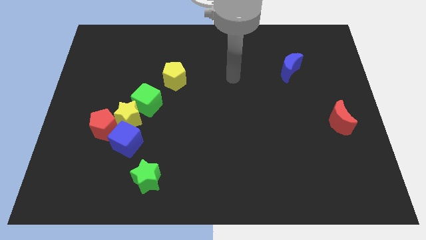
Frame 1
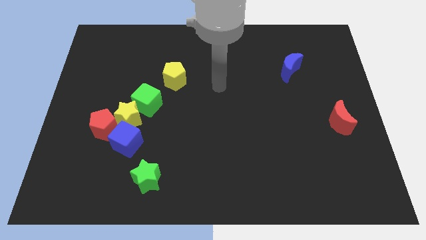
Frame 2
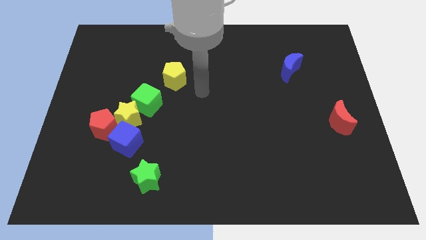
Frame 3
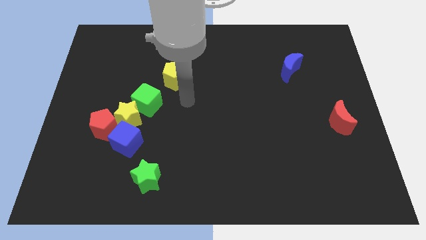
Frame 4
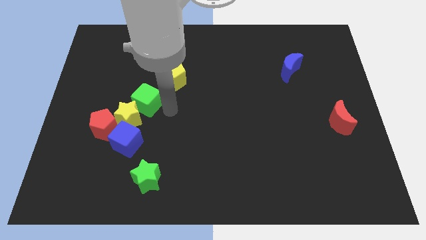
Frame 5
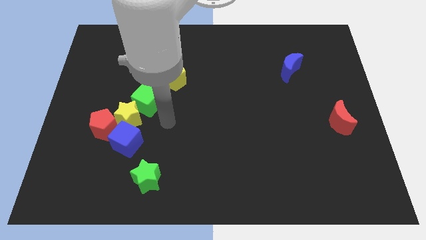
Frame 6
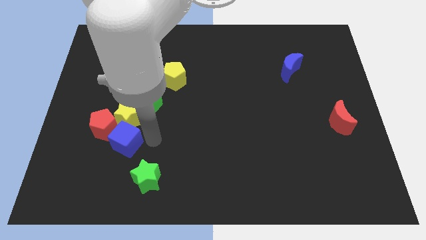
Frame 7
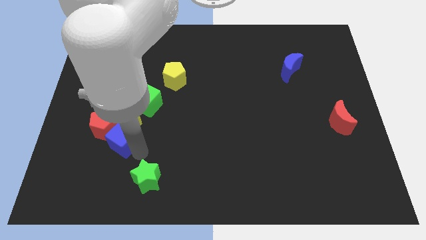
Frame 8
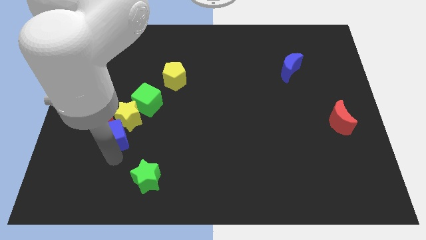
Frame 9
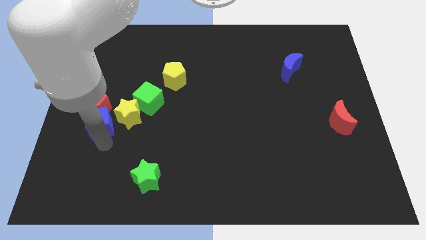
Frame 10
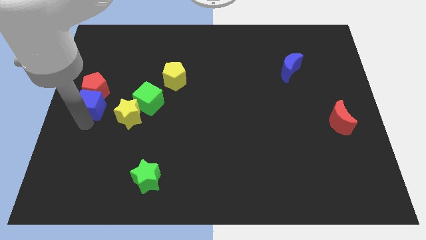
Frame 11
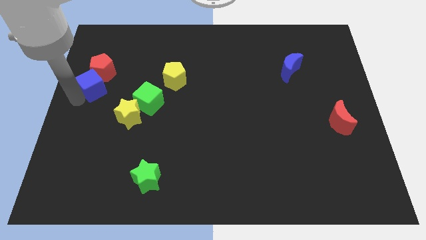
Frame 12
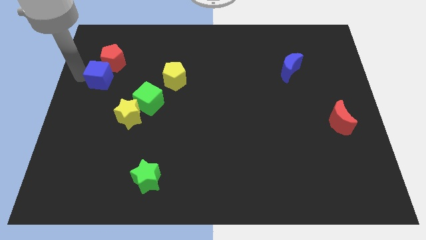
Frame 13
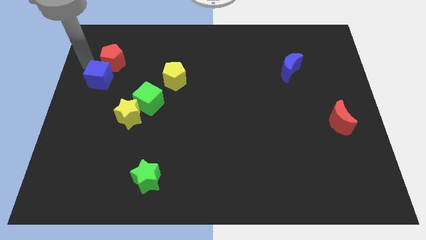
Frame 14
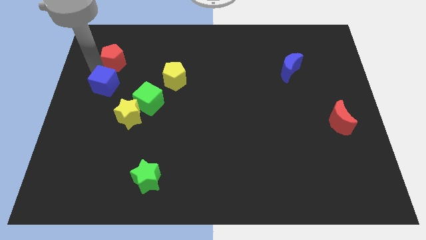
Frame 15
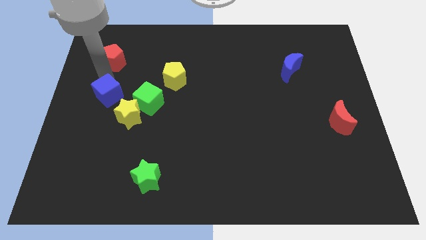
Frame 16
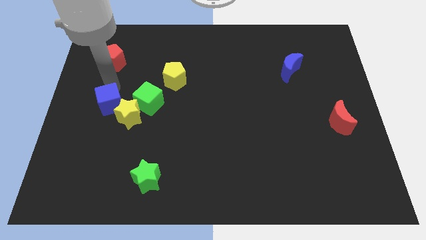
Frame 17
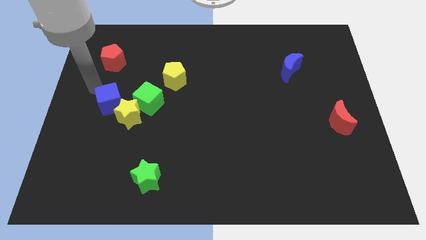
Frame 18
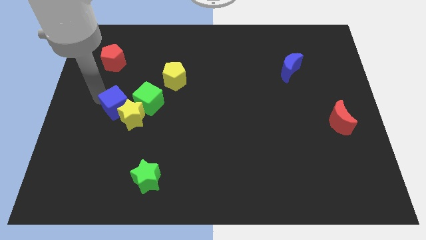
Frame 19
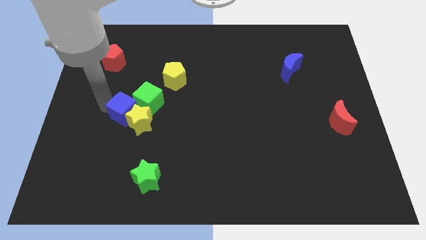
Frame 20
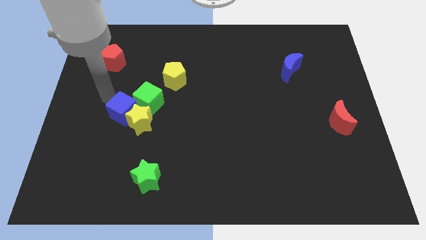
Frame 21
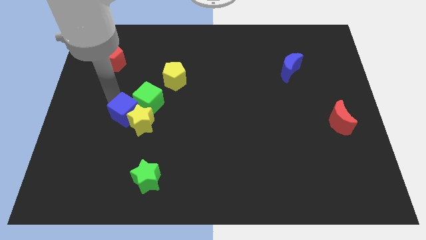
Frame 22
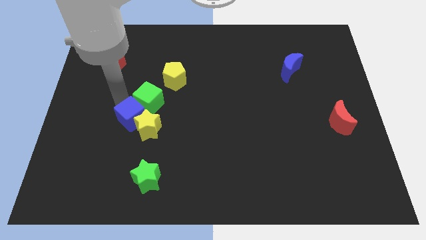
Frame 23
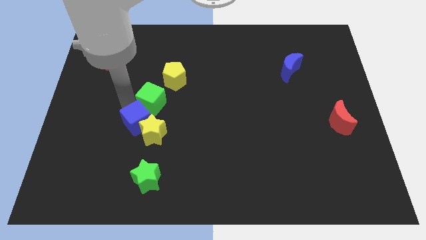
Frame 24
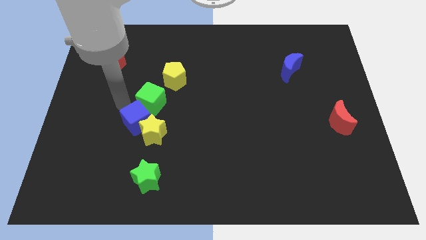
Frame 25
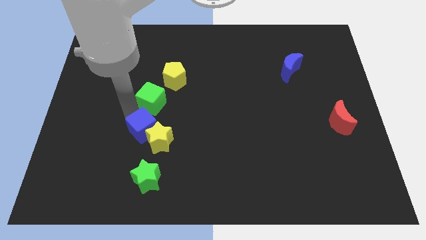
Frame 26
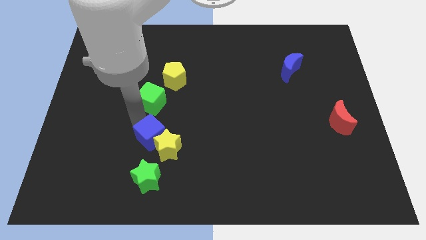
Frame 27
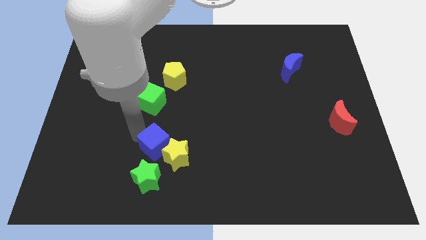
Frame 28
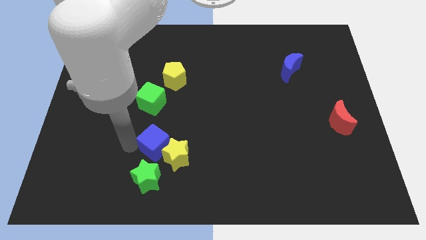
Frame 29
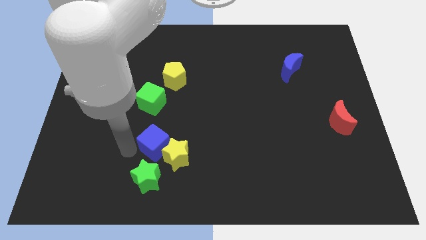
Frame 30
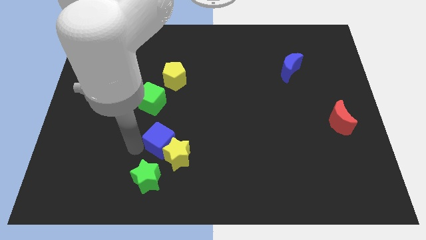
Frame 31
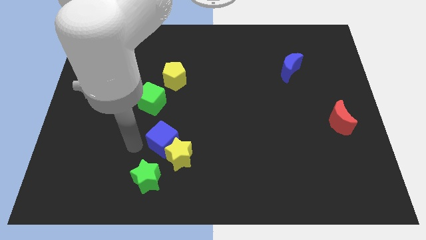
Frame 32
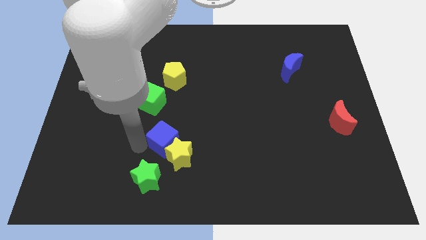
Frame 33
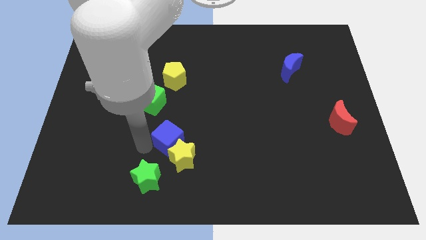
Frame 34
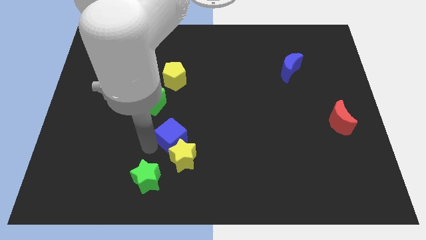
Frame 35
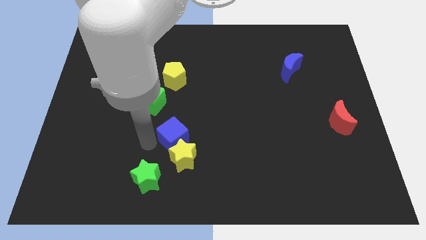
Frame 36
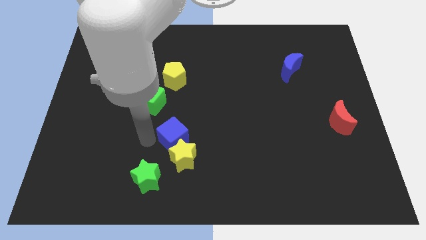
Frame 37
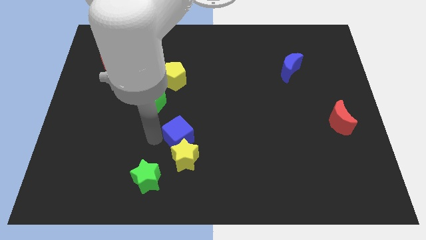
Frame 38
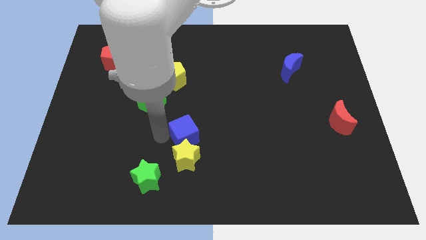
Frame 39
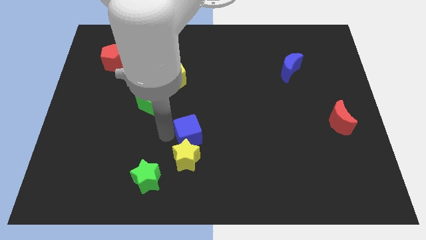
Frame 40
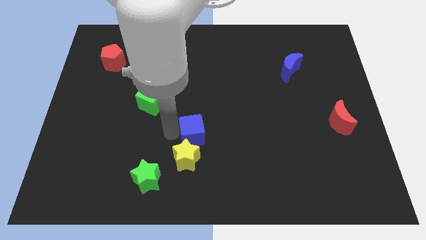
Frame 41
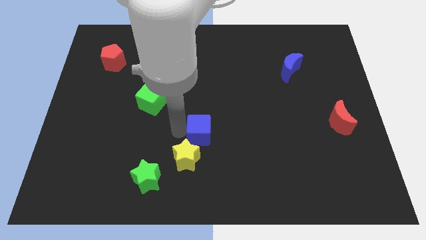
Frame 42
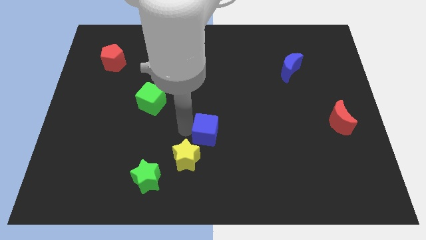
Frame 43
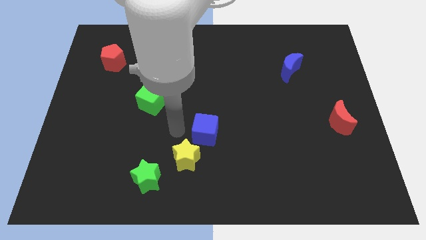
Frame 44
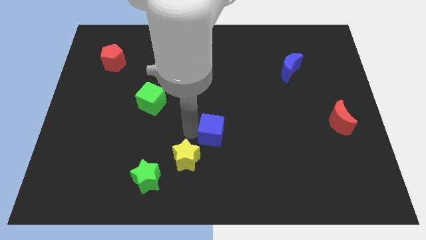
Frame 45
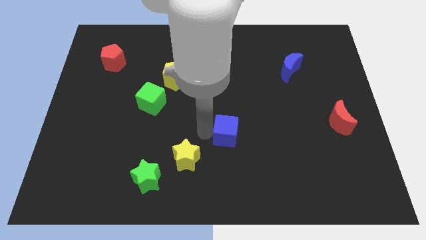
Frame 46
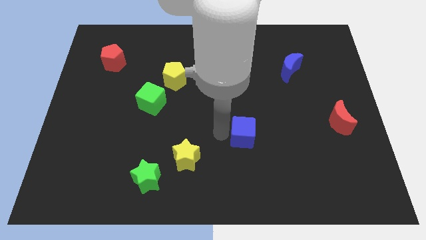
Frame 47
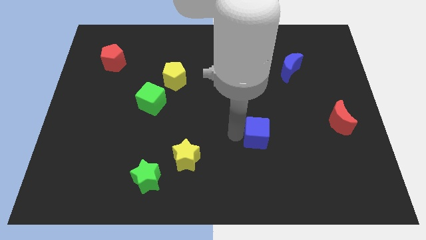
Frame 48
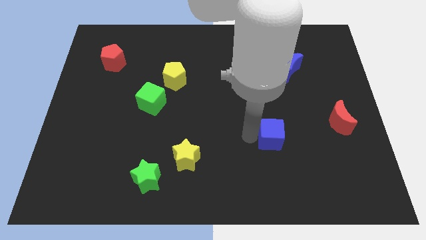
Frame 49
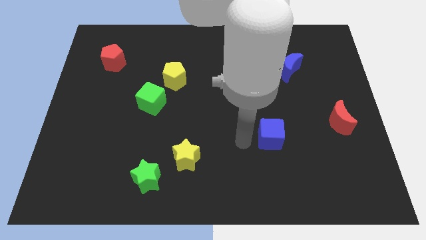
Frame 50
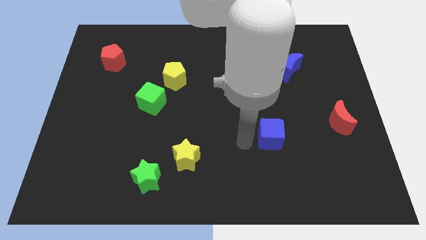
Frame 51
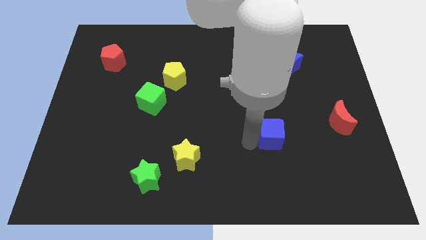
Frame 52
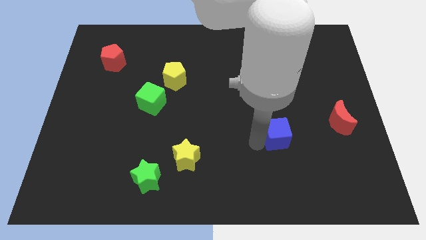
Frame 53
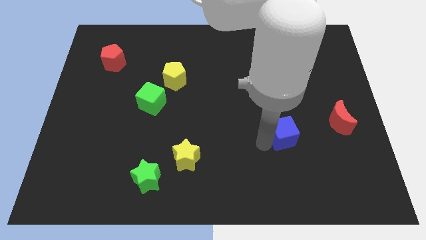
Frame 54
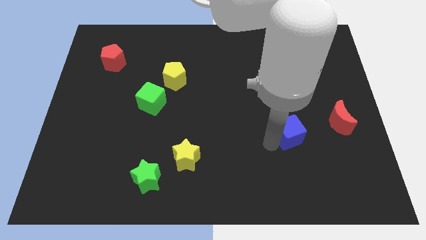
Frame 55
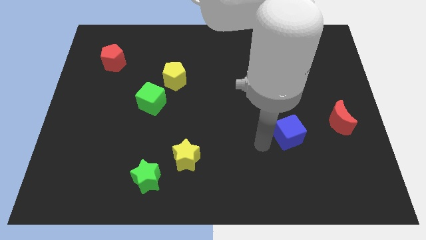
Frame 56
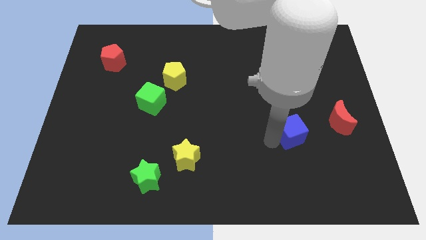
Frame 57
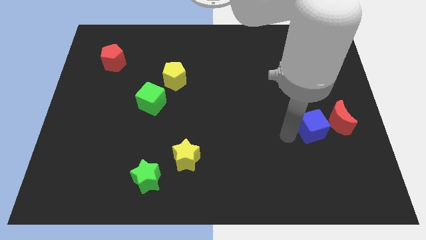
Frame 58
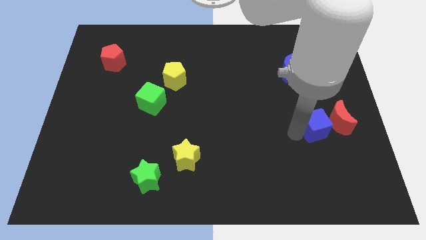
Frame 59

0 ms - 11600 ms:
put the blue cube towards the red moon

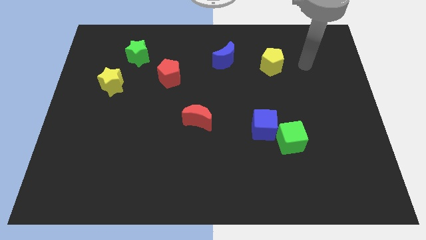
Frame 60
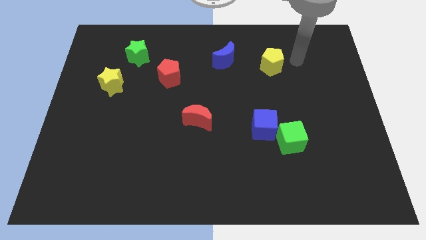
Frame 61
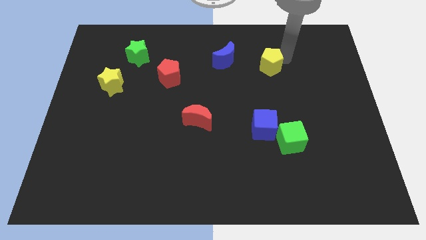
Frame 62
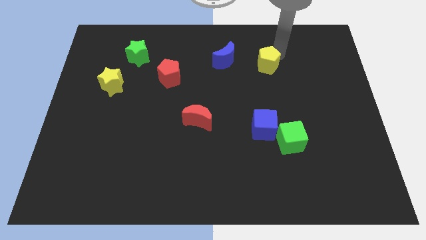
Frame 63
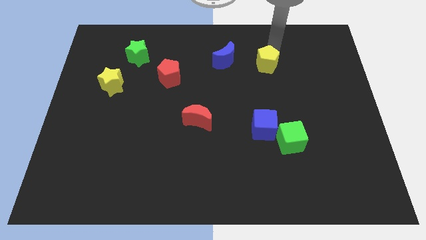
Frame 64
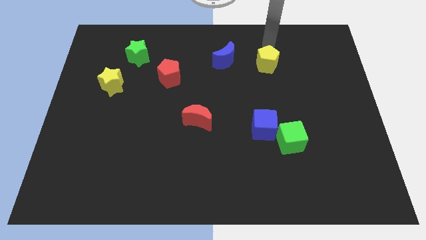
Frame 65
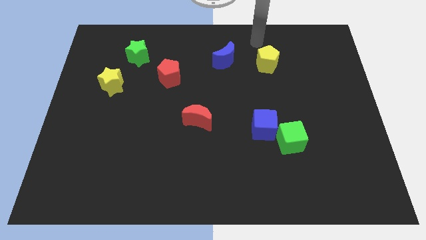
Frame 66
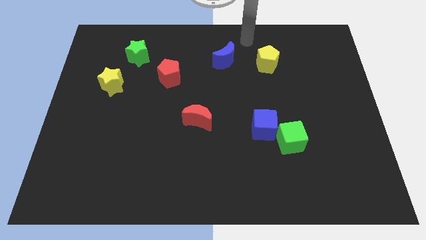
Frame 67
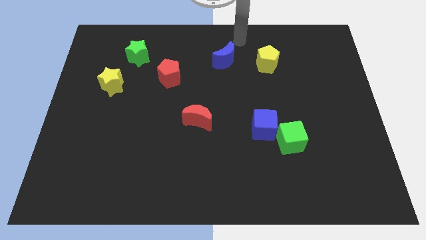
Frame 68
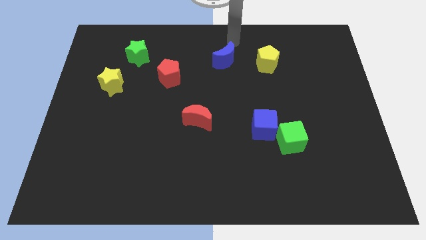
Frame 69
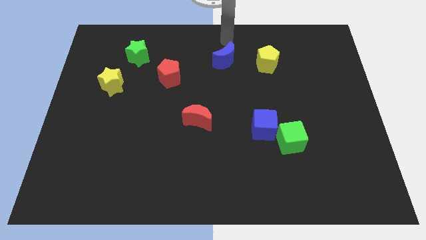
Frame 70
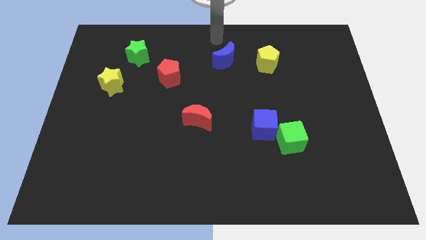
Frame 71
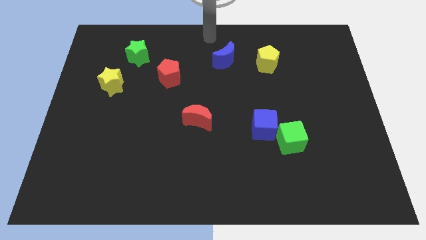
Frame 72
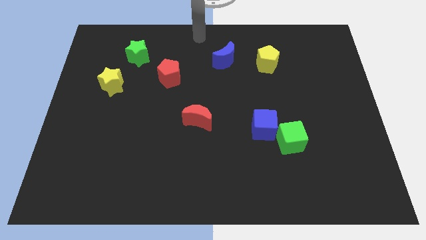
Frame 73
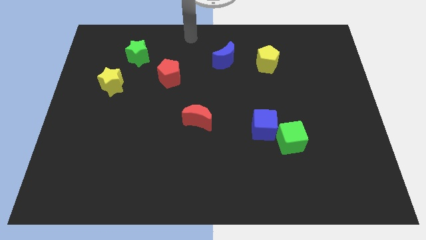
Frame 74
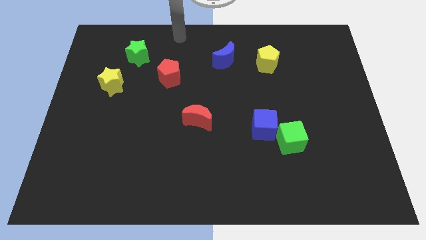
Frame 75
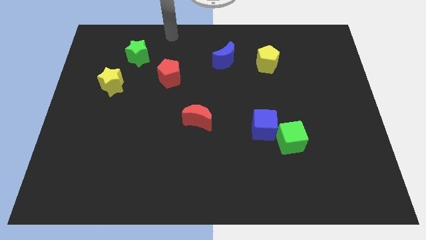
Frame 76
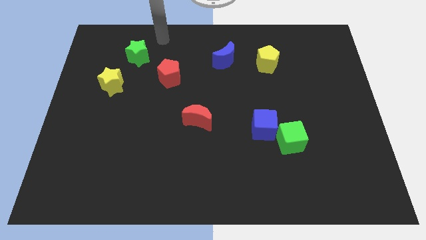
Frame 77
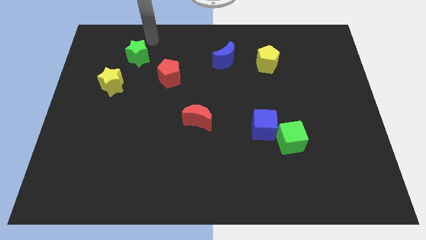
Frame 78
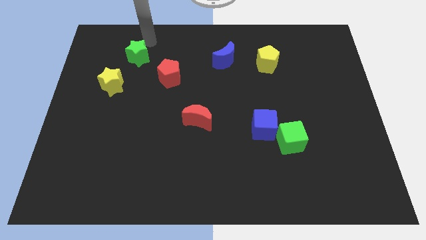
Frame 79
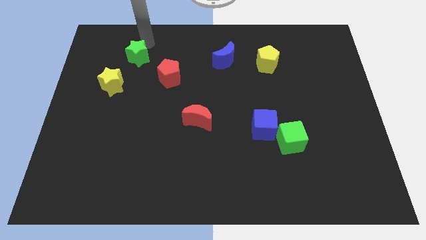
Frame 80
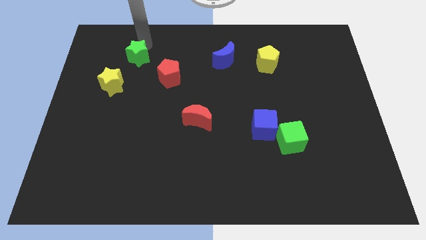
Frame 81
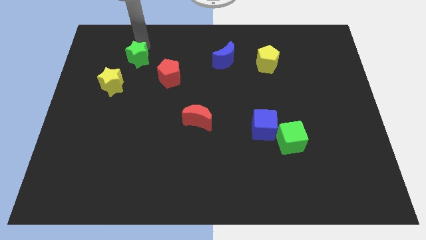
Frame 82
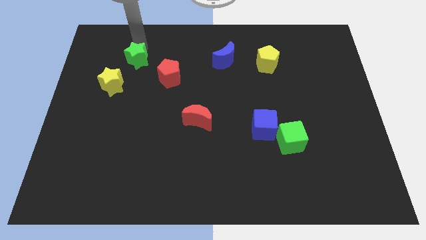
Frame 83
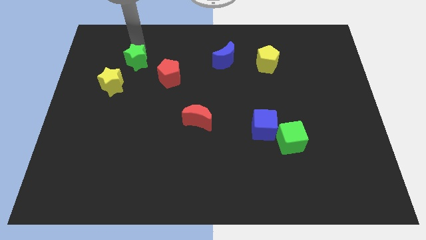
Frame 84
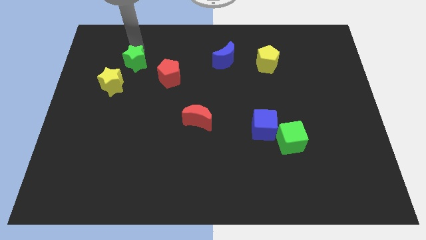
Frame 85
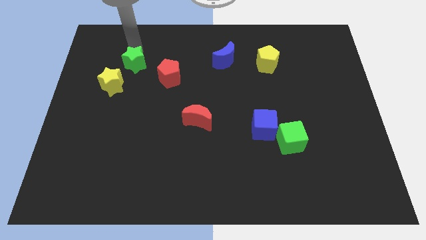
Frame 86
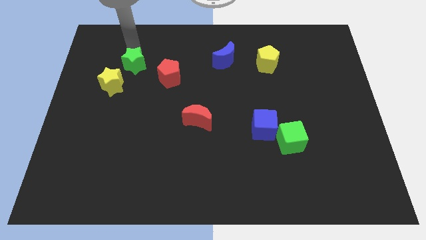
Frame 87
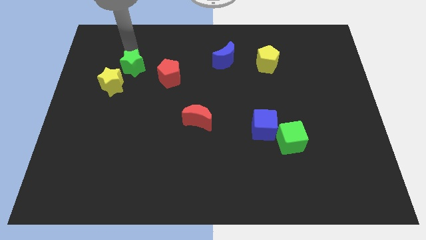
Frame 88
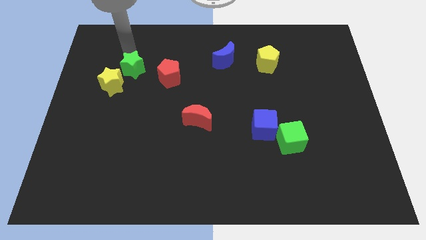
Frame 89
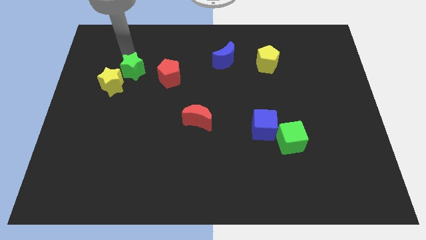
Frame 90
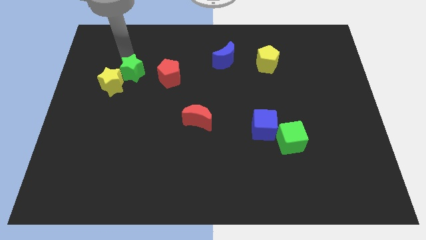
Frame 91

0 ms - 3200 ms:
move the green star close to the yellow star
